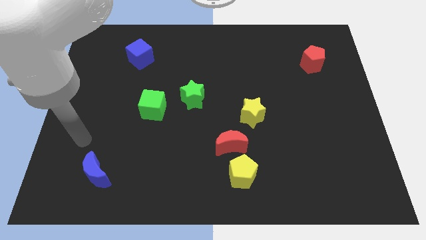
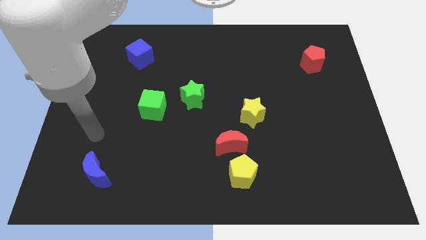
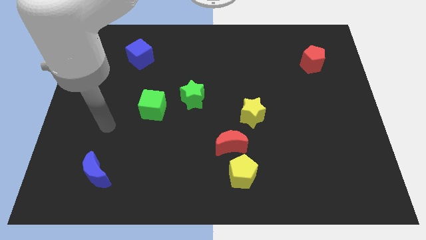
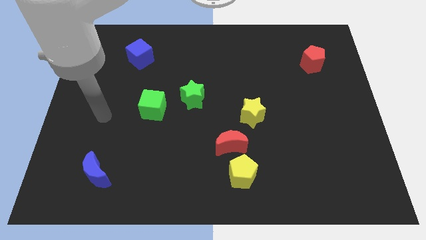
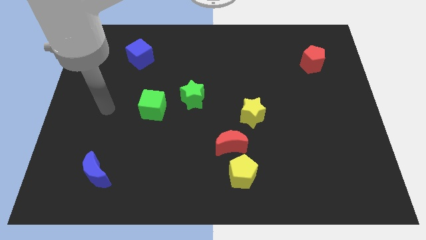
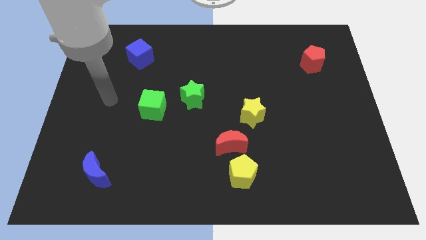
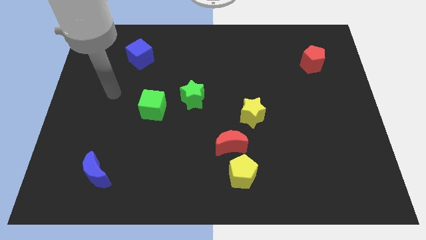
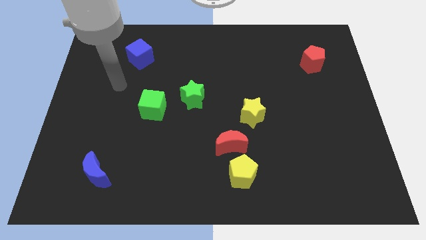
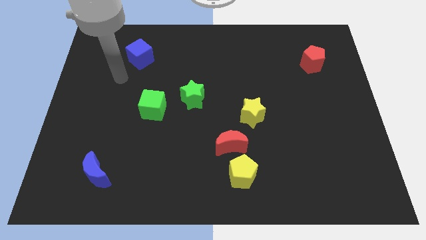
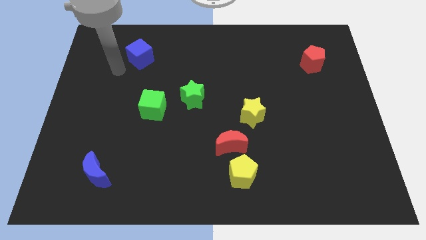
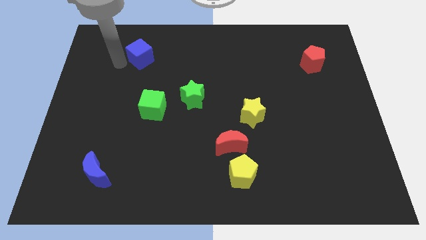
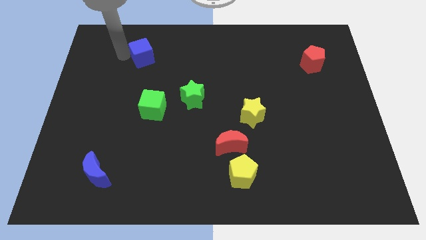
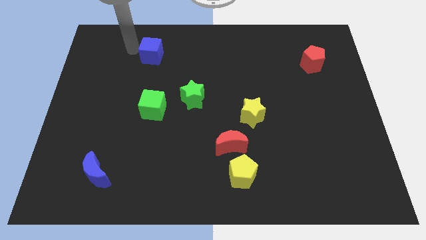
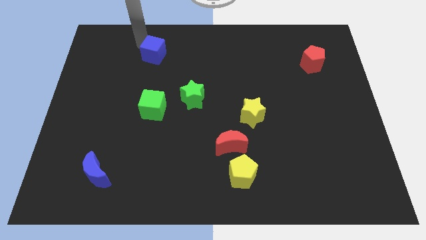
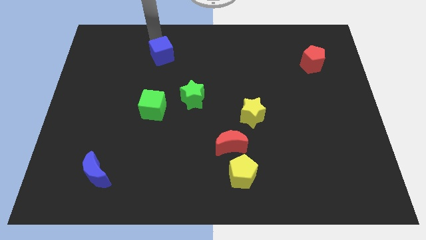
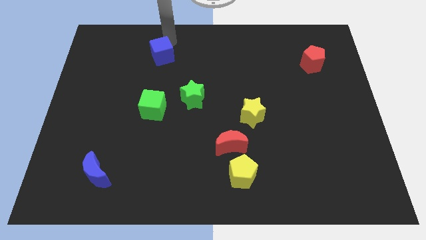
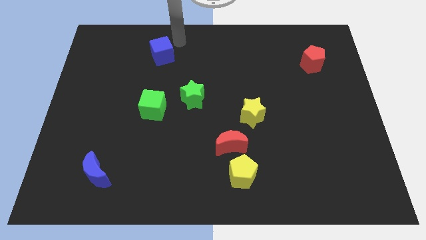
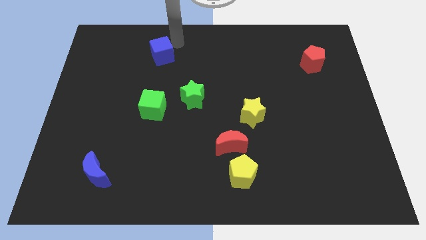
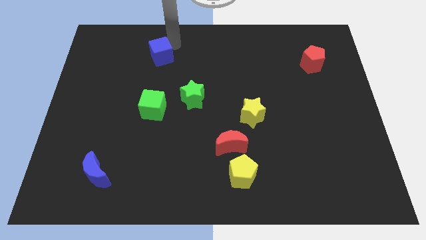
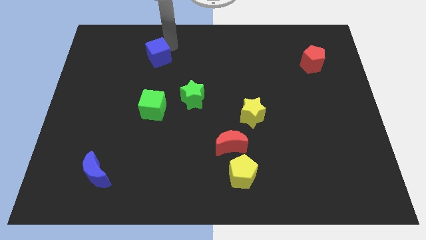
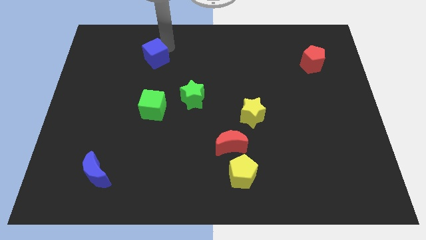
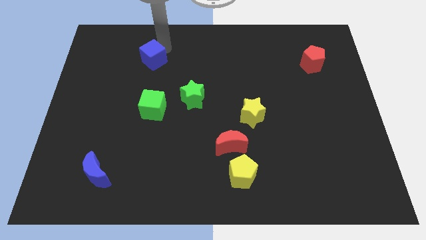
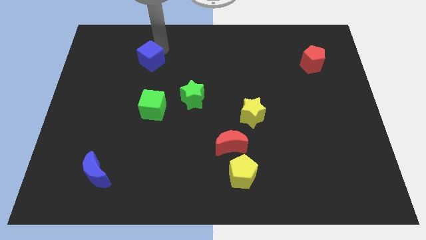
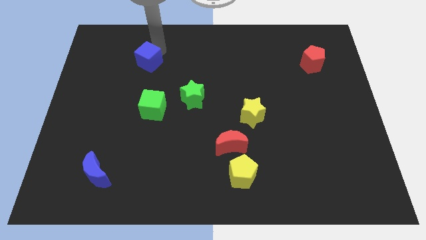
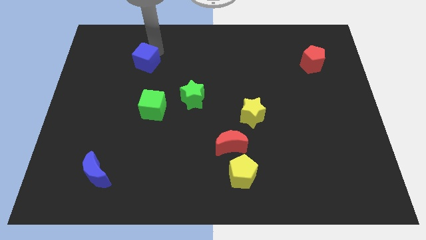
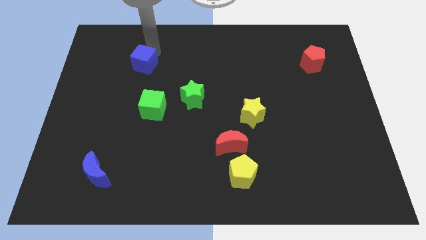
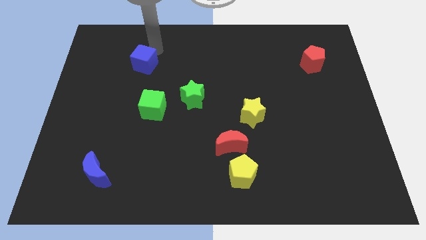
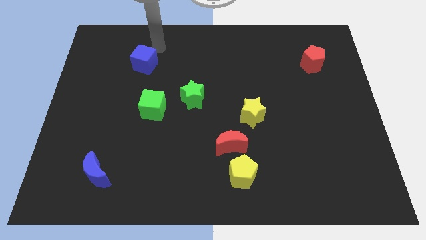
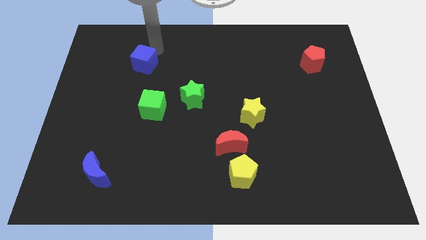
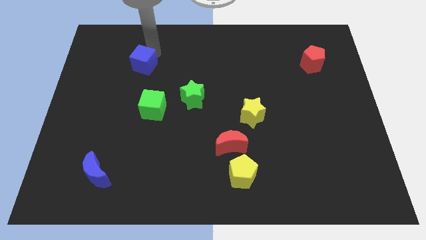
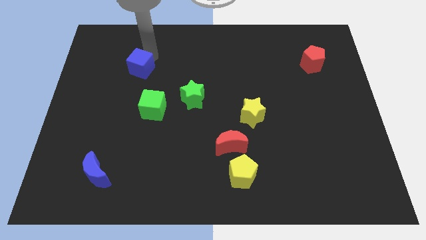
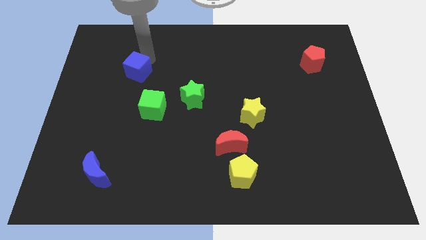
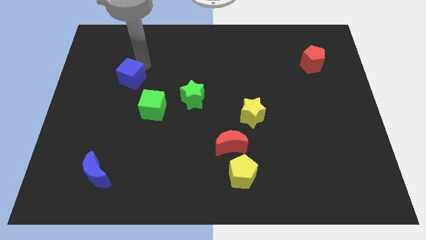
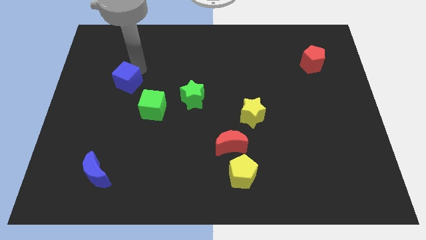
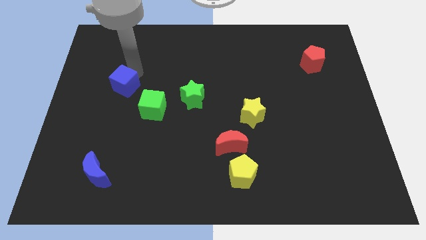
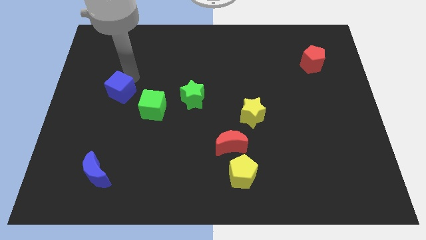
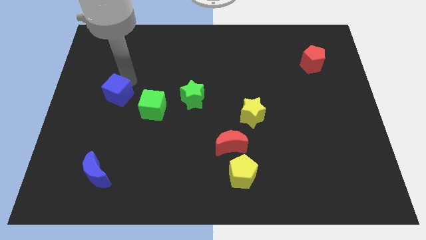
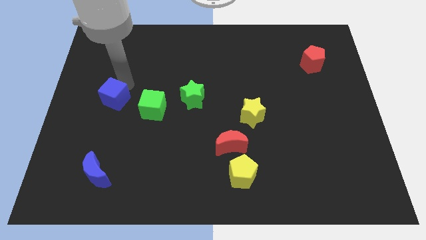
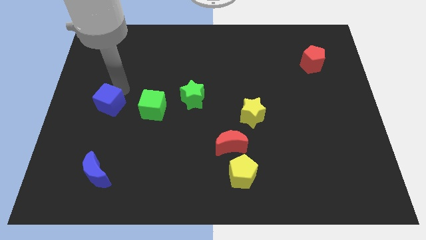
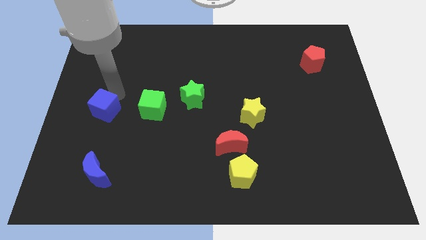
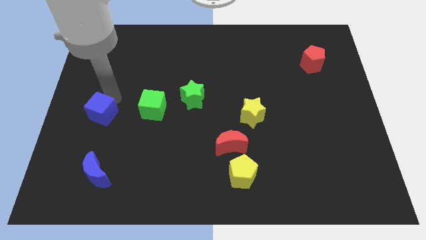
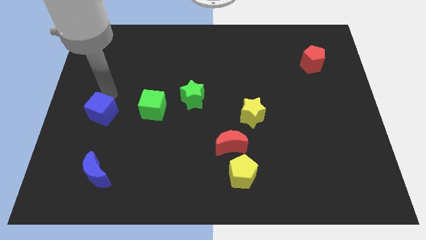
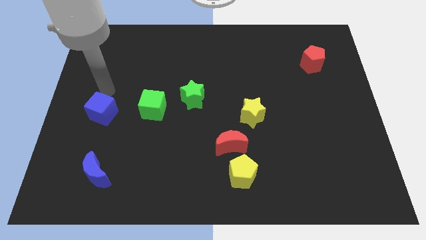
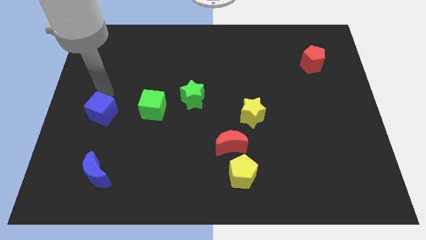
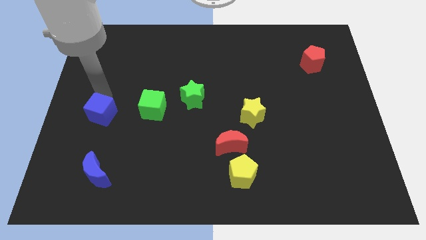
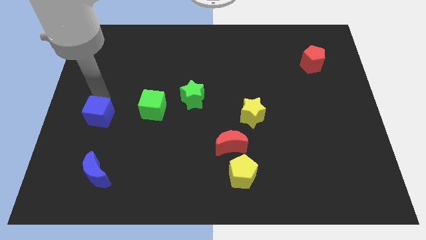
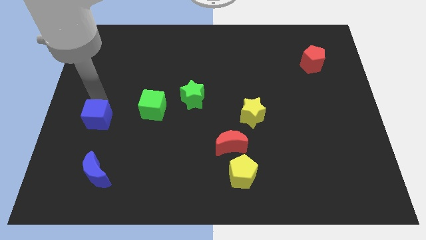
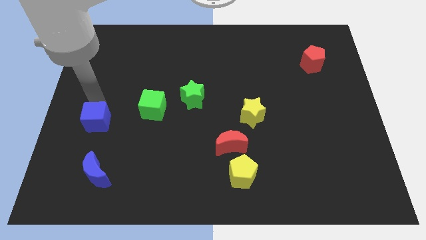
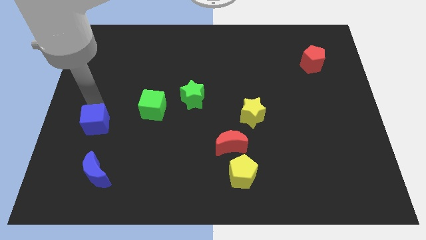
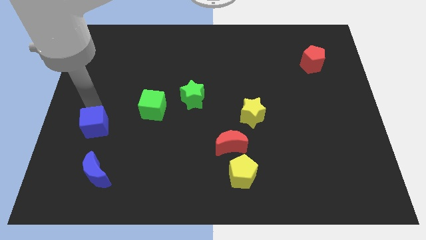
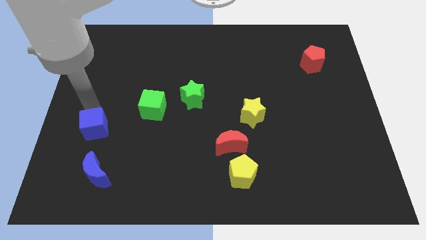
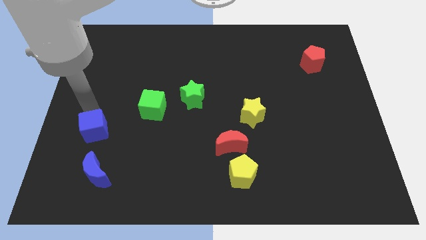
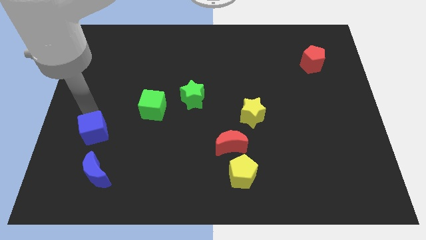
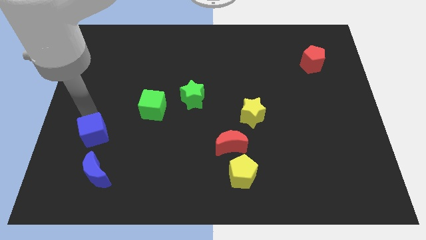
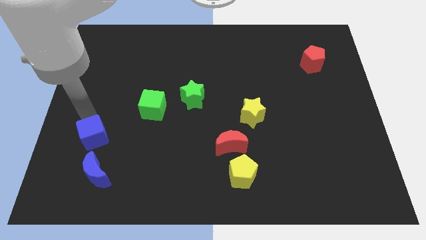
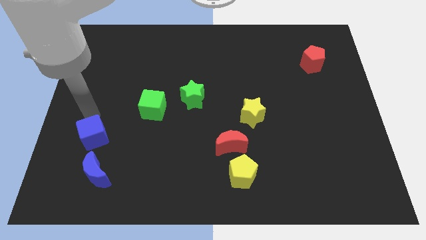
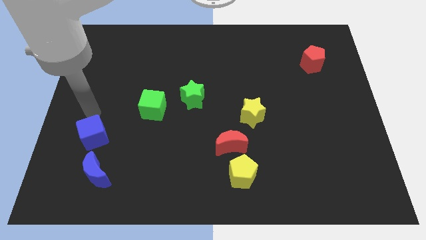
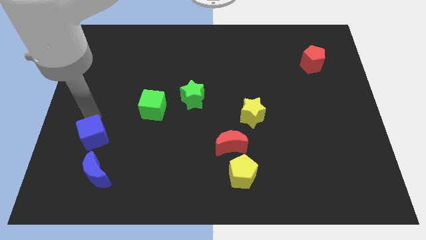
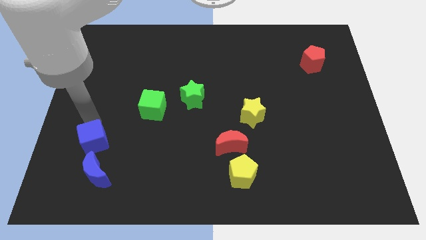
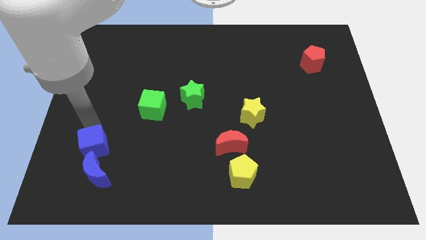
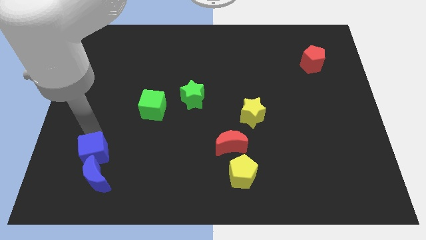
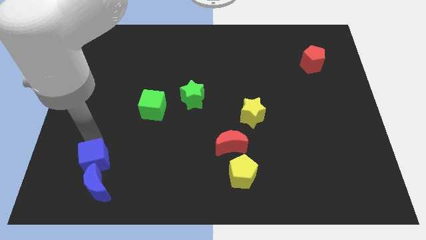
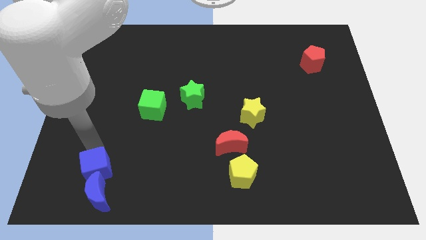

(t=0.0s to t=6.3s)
push the blue cube next to the blue moon

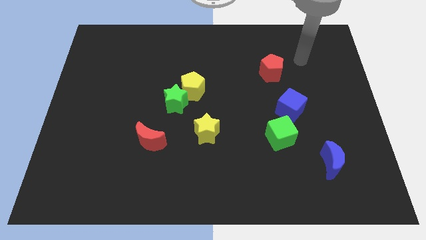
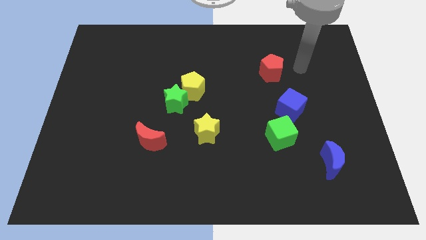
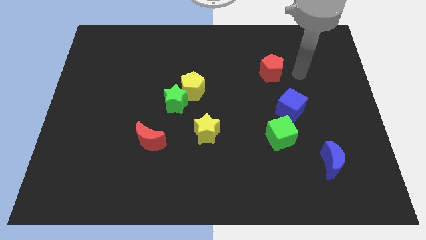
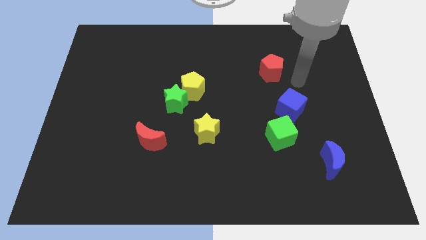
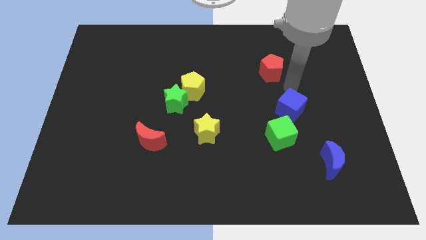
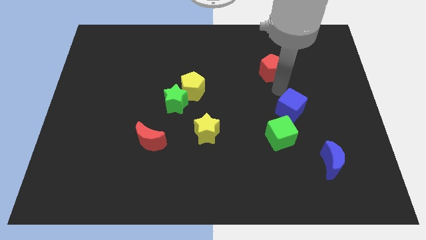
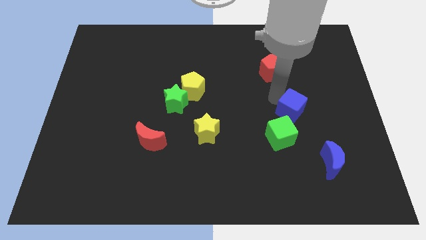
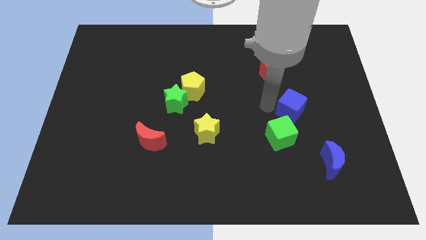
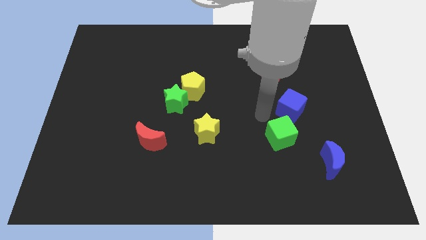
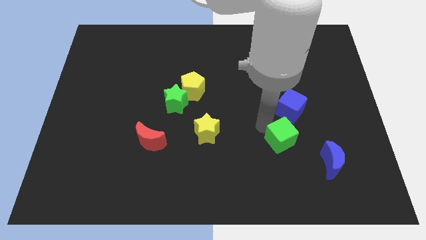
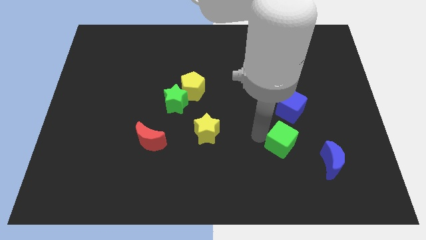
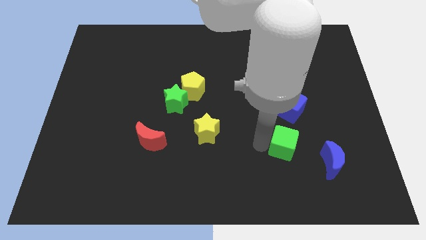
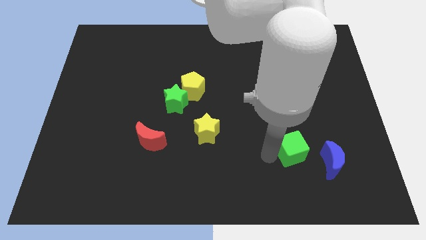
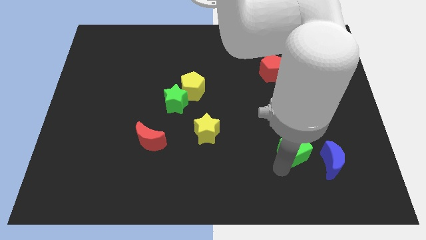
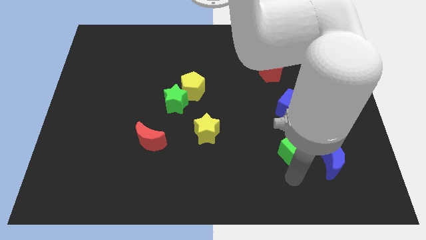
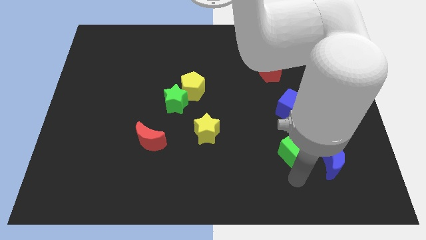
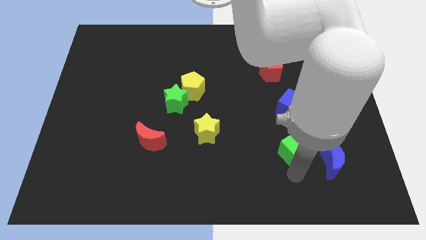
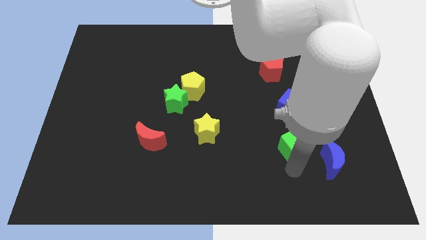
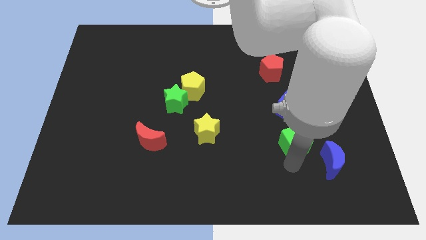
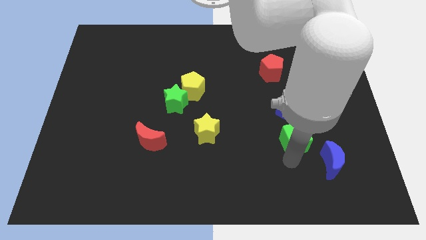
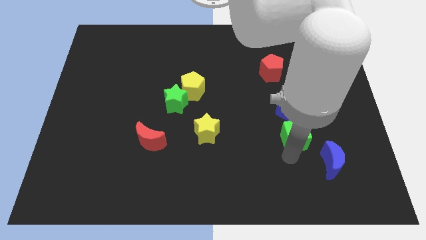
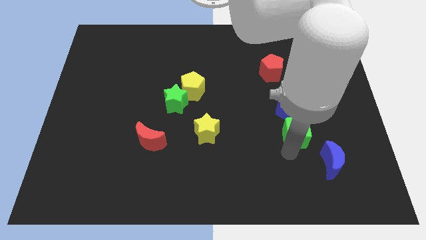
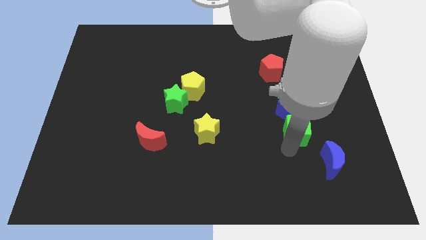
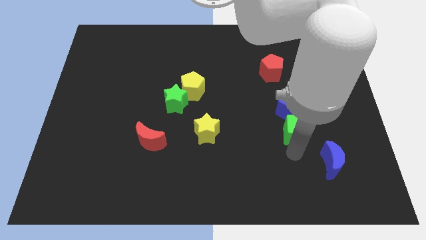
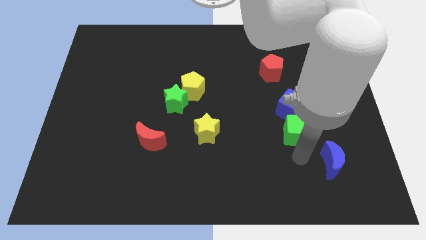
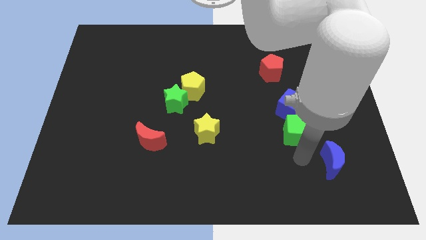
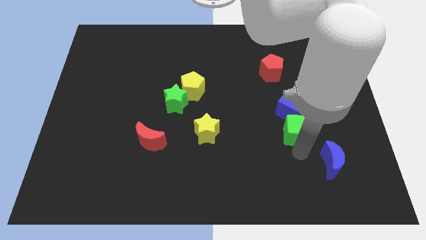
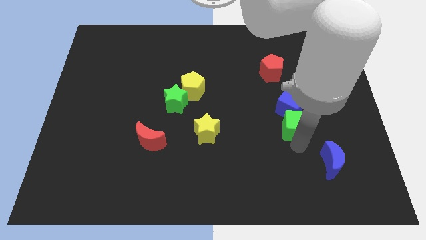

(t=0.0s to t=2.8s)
push the green cube next to the blue cube
